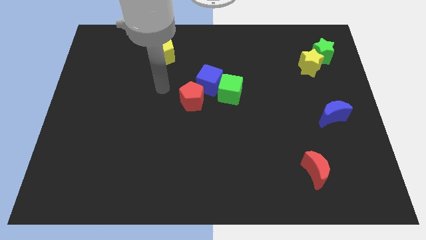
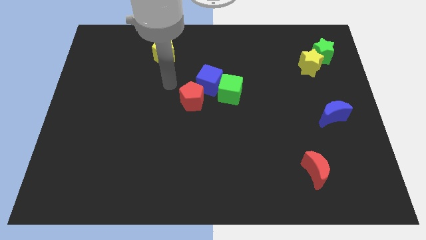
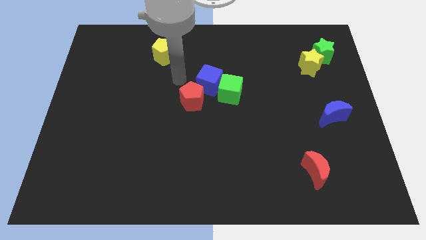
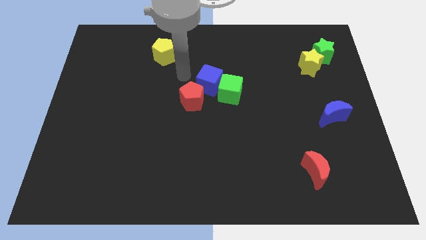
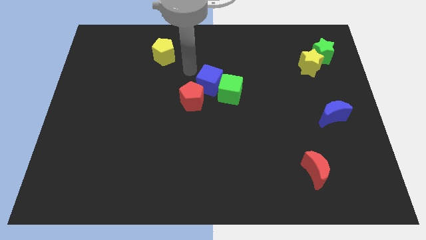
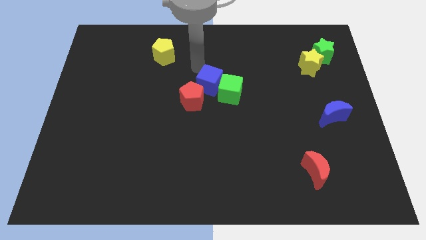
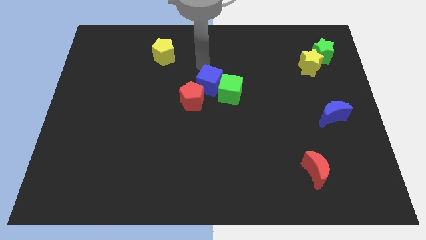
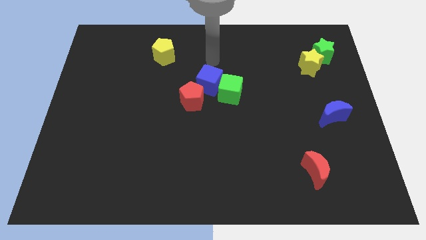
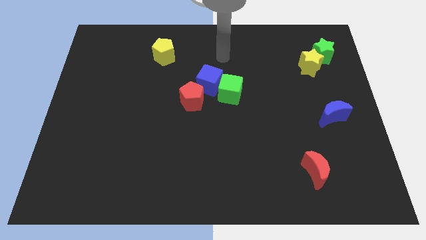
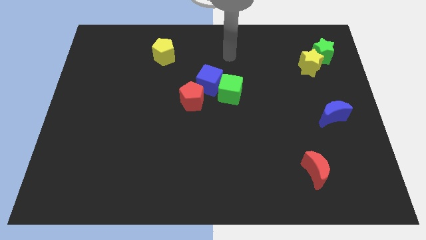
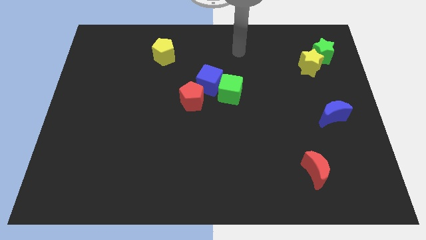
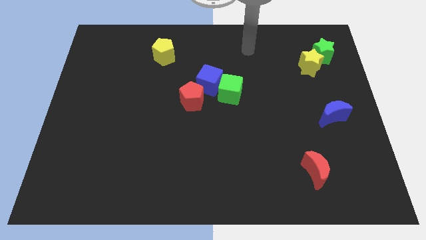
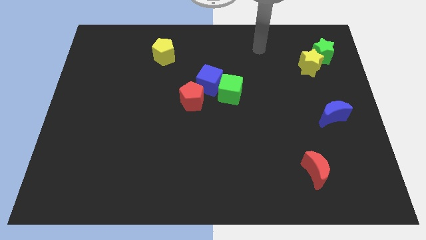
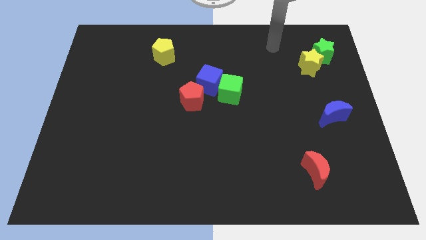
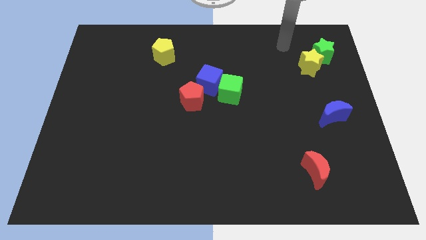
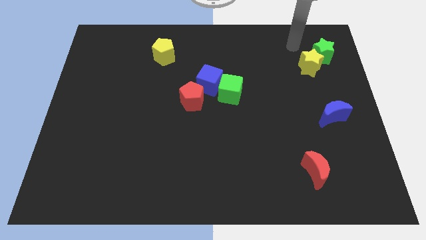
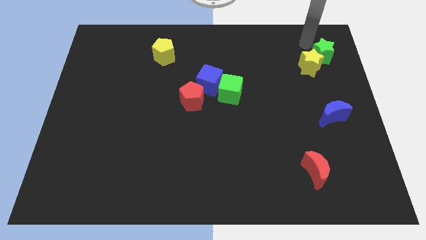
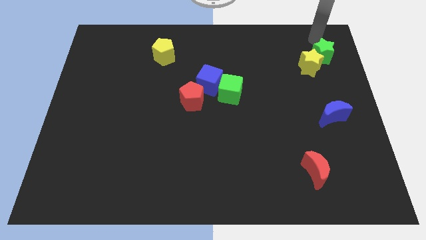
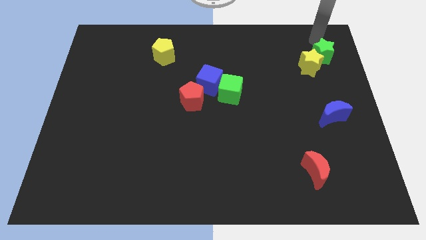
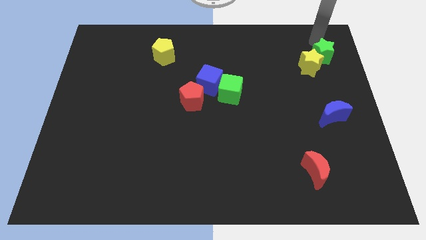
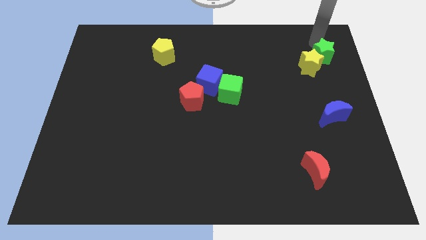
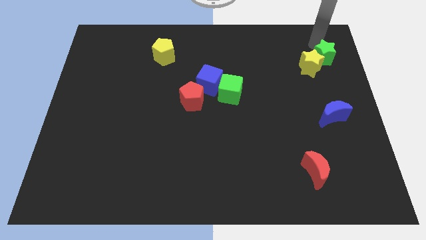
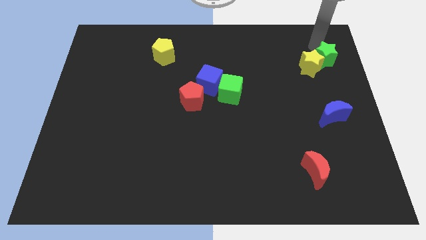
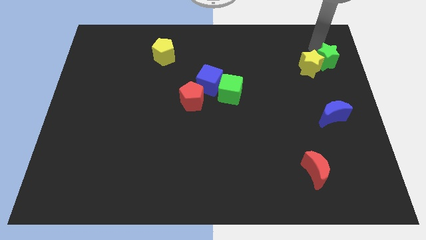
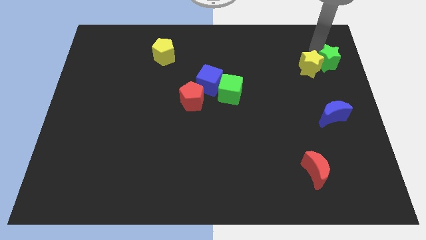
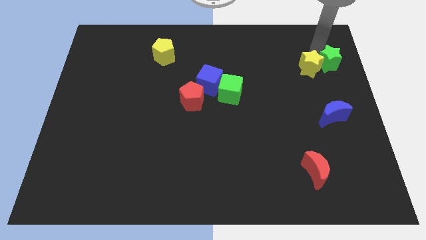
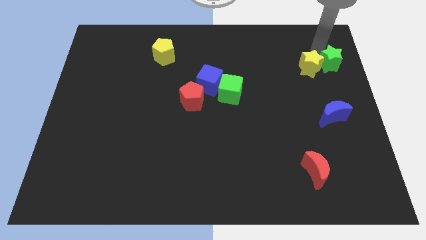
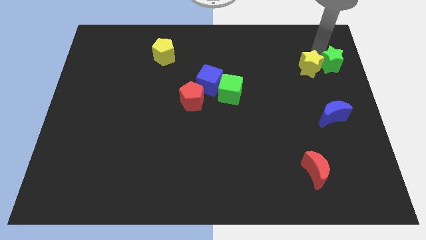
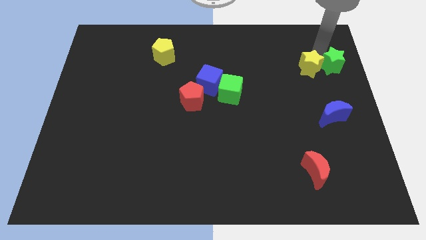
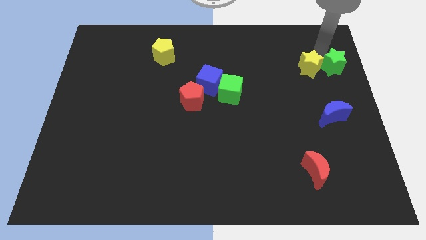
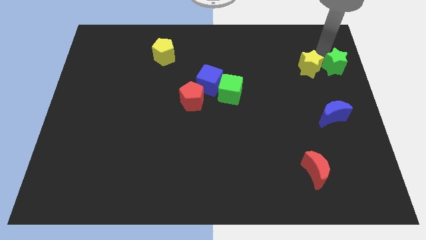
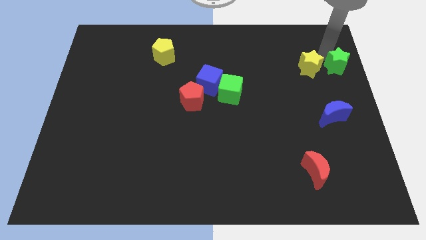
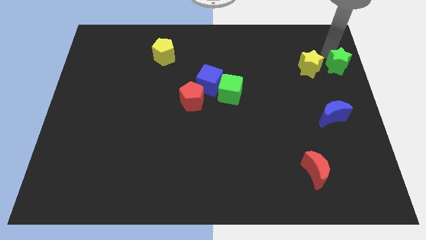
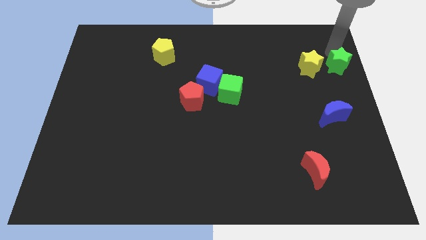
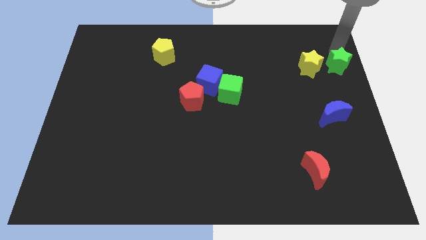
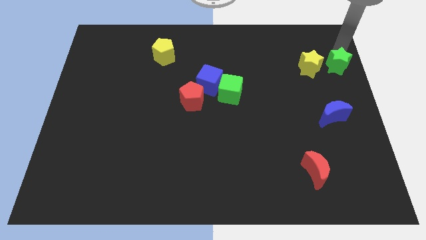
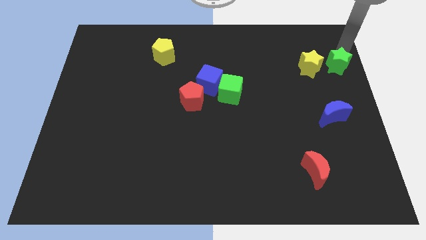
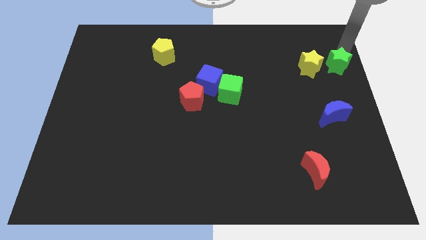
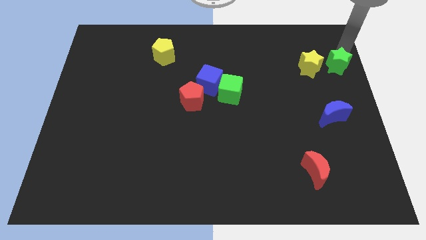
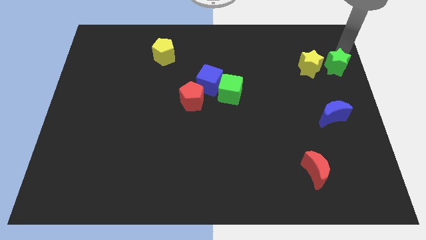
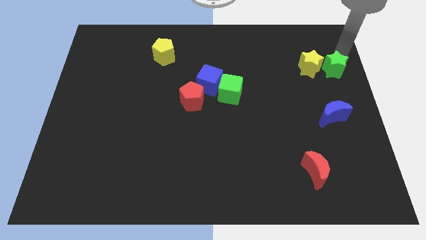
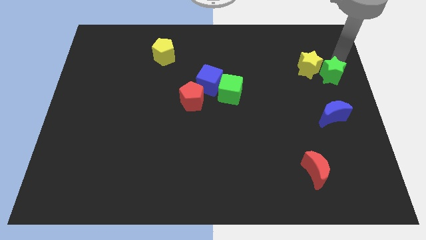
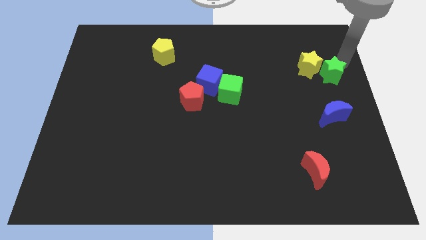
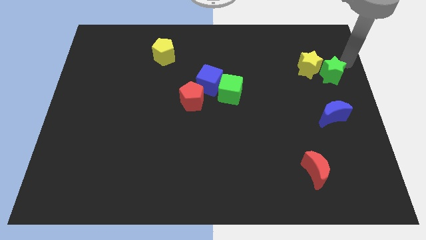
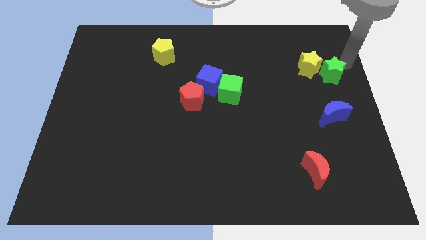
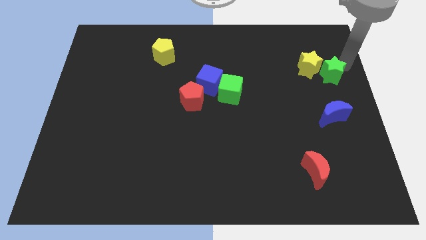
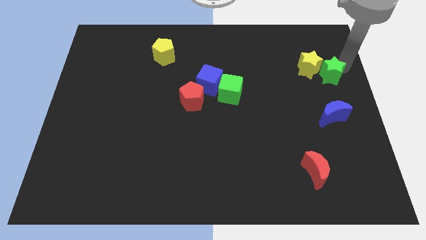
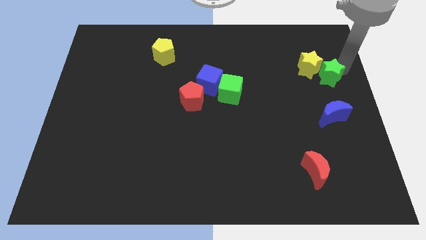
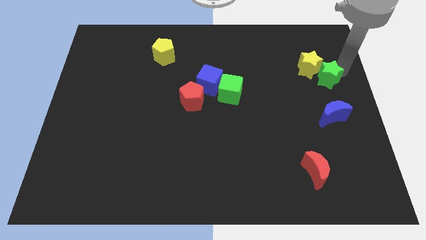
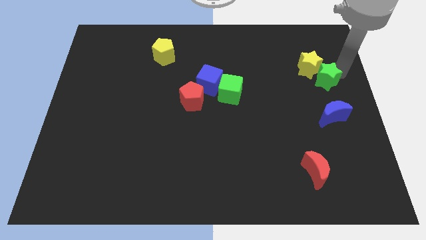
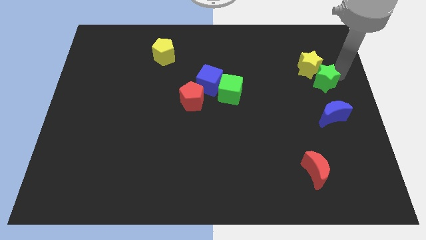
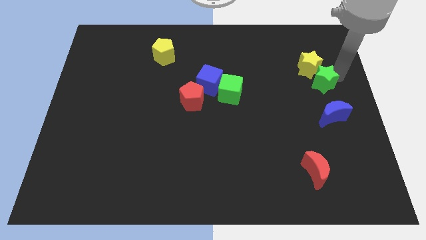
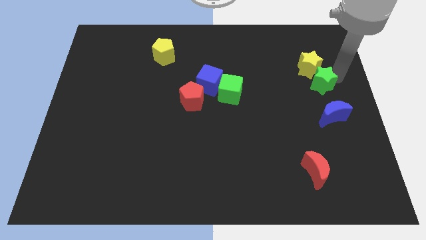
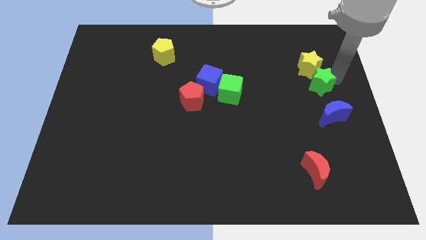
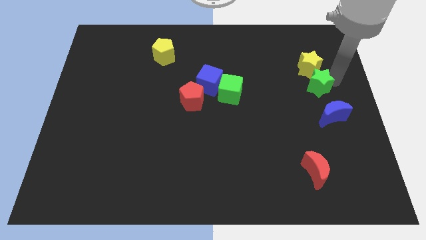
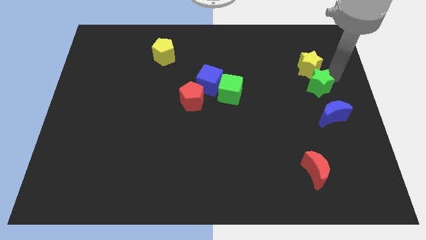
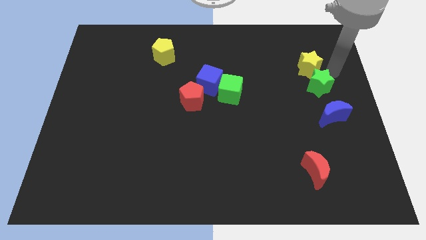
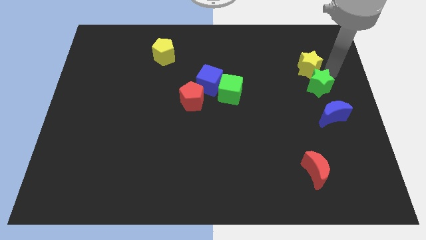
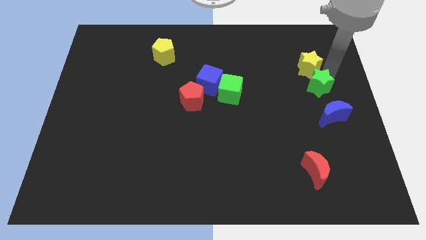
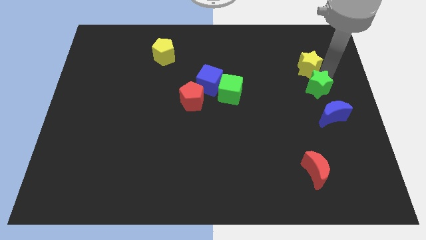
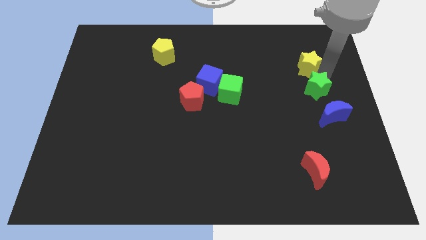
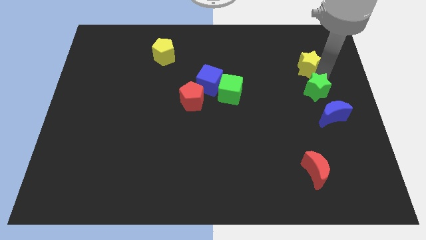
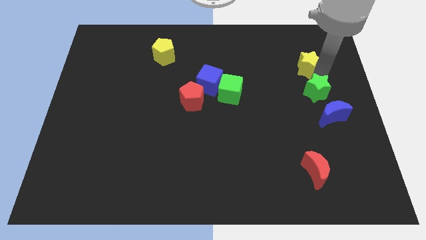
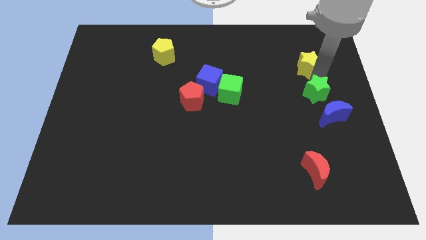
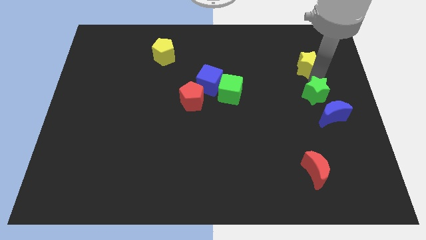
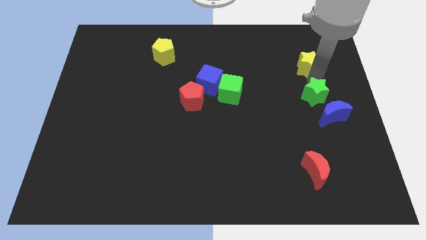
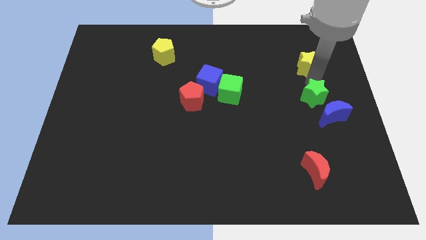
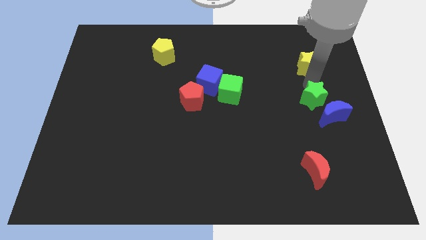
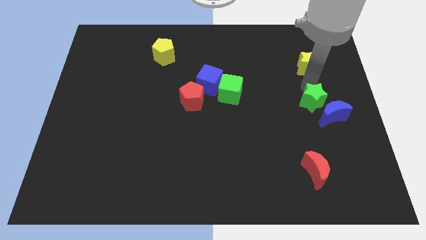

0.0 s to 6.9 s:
put the green star to the left of the blue moon
